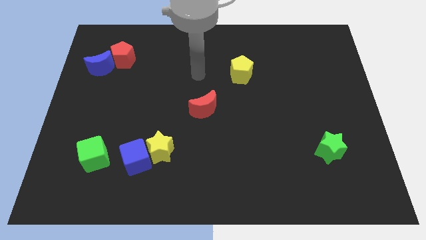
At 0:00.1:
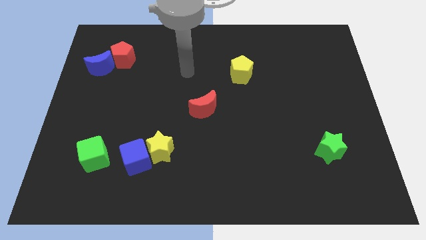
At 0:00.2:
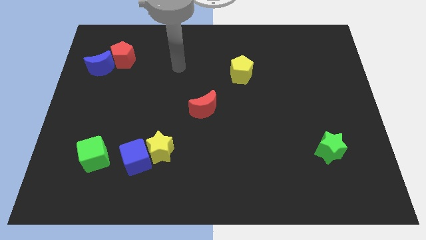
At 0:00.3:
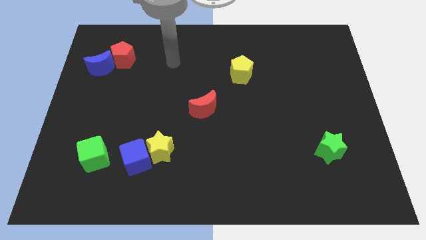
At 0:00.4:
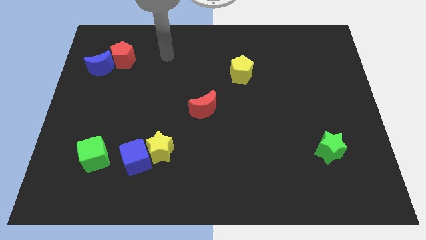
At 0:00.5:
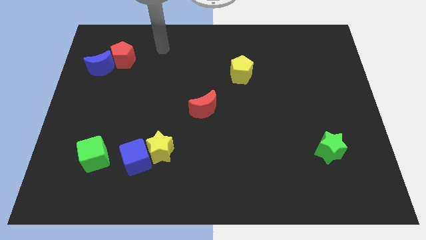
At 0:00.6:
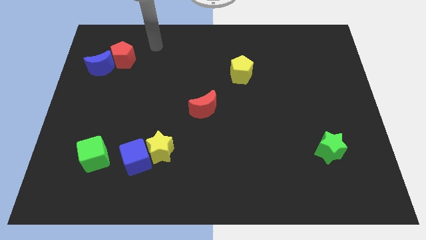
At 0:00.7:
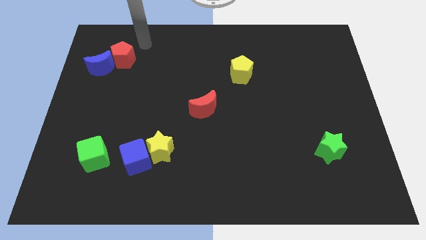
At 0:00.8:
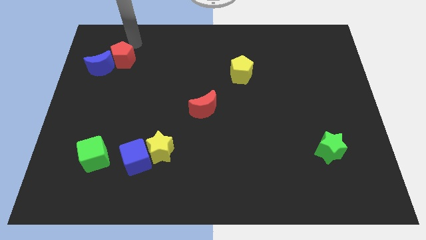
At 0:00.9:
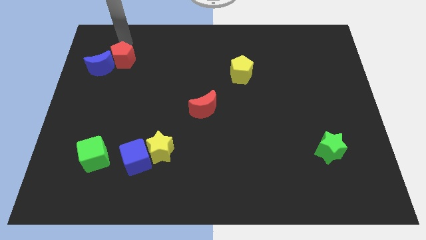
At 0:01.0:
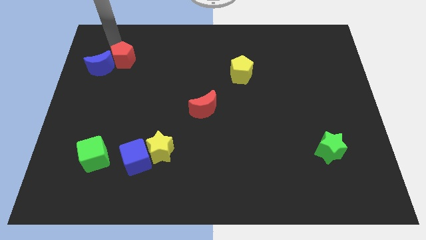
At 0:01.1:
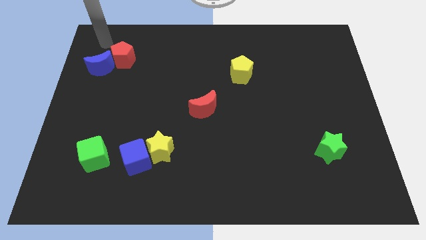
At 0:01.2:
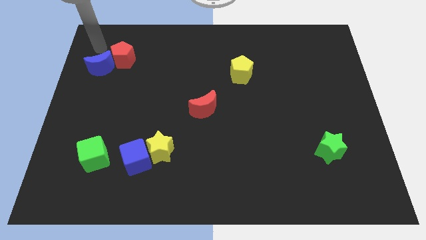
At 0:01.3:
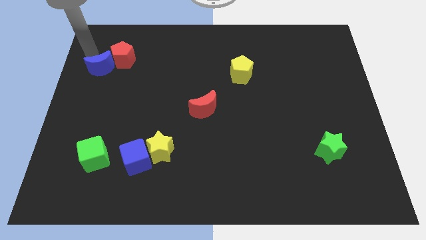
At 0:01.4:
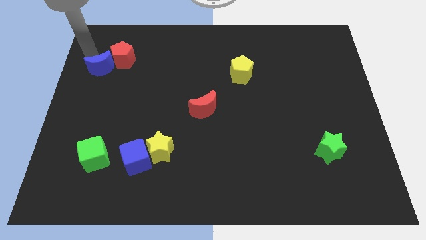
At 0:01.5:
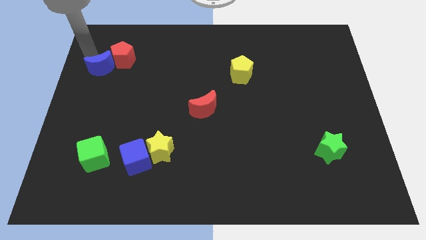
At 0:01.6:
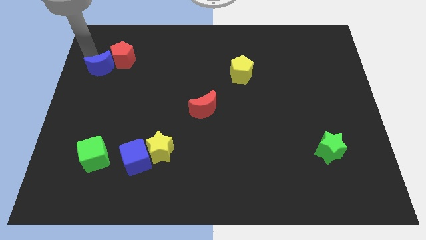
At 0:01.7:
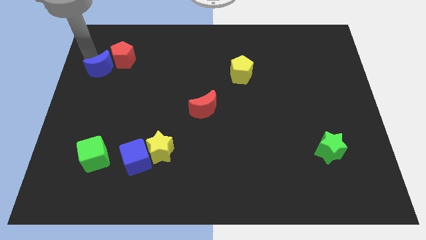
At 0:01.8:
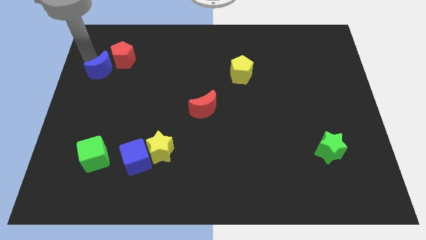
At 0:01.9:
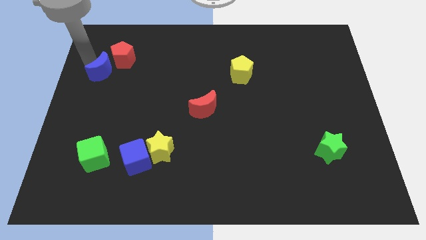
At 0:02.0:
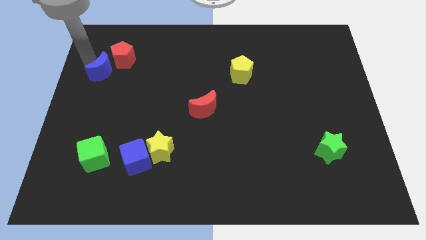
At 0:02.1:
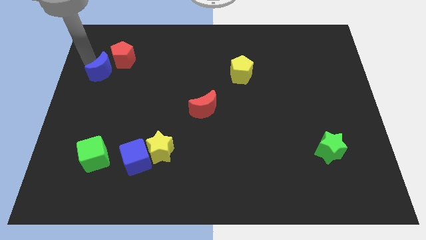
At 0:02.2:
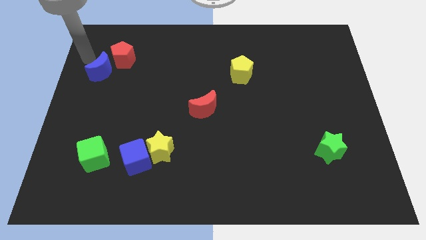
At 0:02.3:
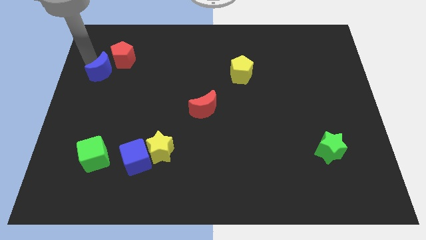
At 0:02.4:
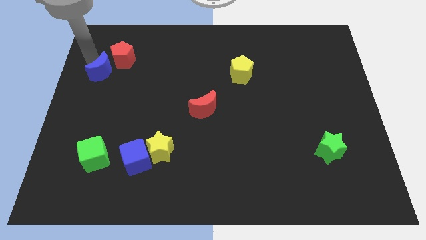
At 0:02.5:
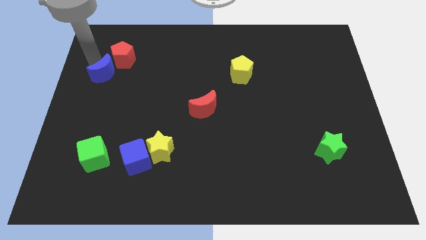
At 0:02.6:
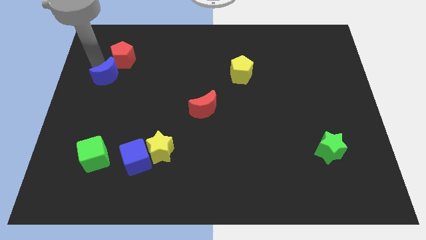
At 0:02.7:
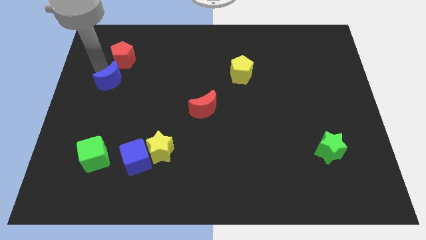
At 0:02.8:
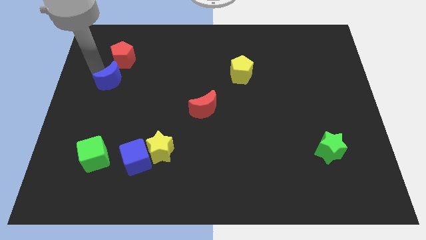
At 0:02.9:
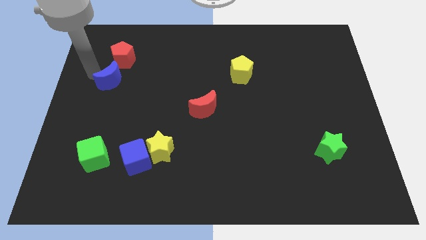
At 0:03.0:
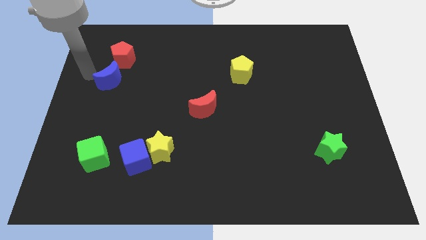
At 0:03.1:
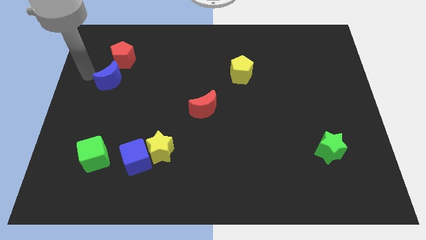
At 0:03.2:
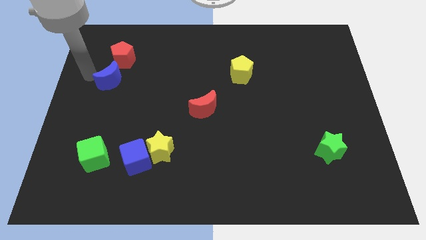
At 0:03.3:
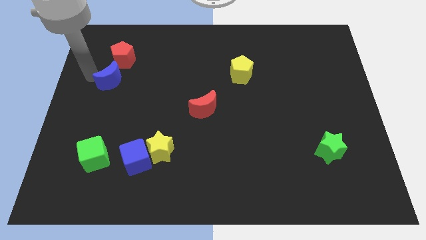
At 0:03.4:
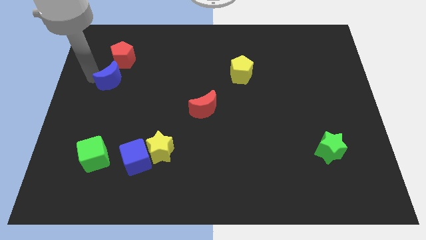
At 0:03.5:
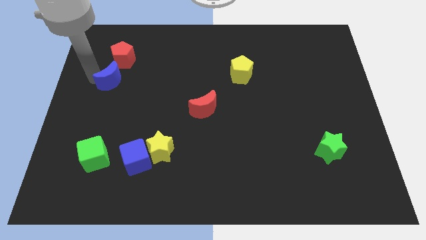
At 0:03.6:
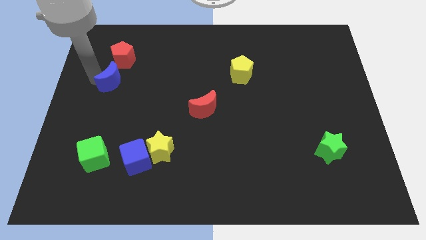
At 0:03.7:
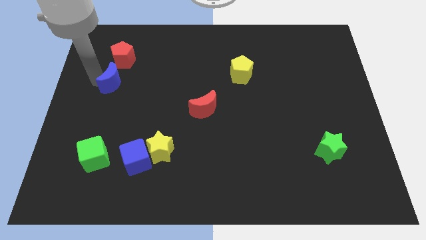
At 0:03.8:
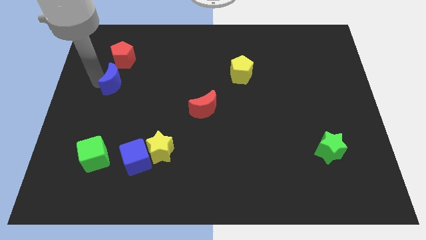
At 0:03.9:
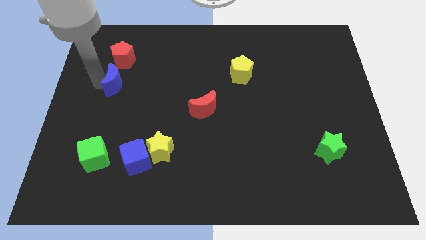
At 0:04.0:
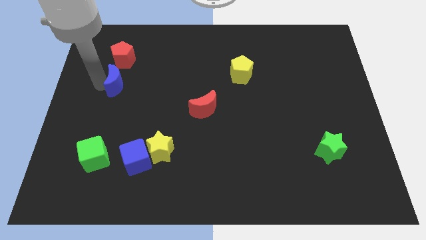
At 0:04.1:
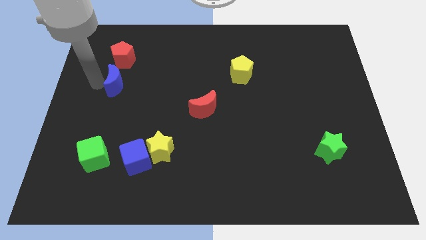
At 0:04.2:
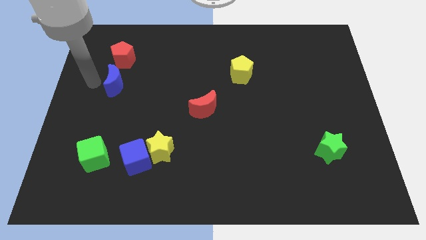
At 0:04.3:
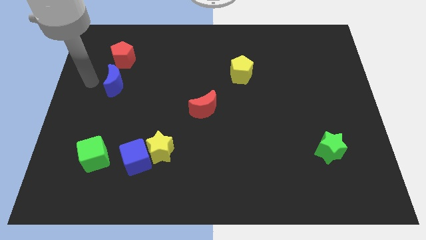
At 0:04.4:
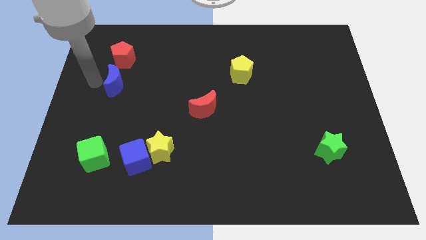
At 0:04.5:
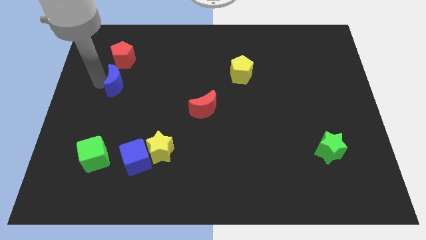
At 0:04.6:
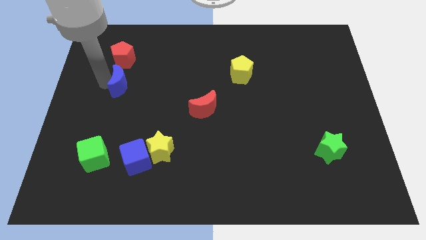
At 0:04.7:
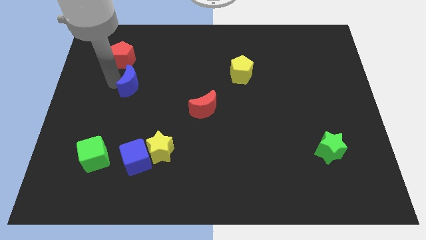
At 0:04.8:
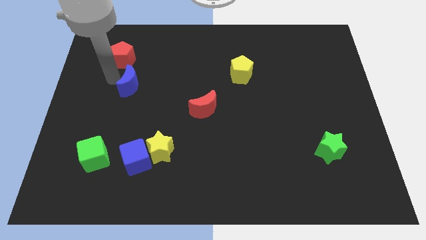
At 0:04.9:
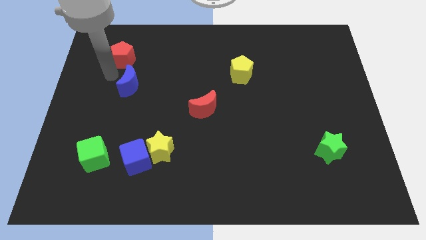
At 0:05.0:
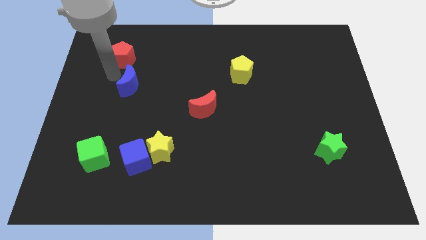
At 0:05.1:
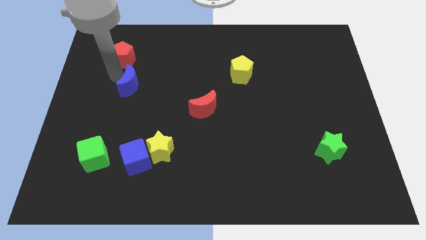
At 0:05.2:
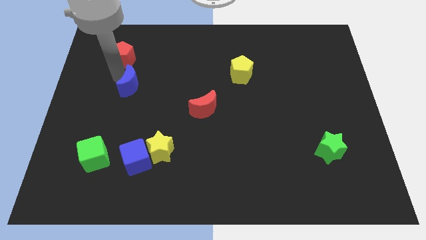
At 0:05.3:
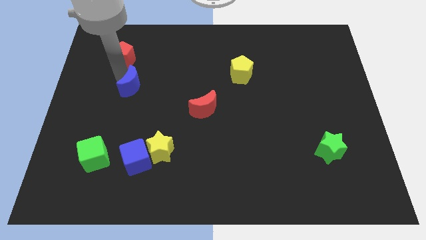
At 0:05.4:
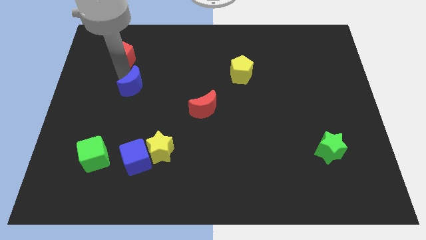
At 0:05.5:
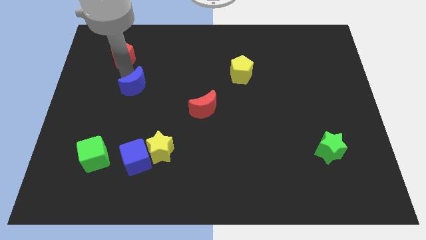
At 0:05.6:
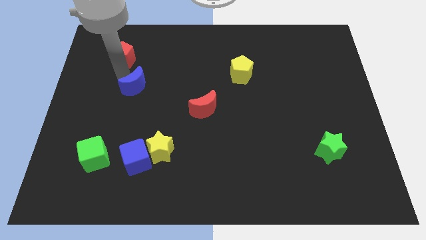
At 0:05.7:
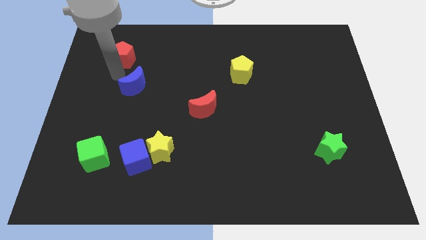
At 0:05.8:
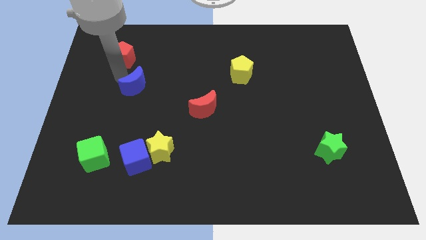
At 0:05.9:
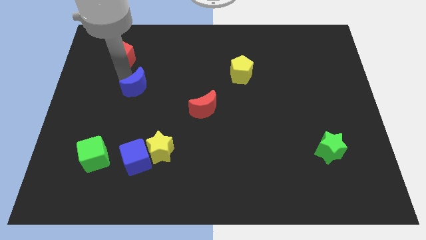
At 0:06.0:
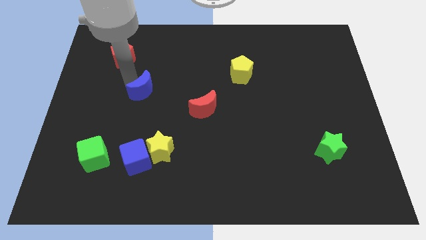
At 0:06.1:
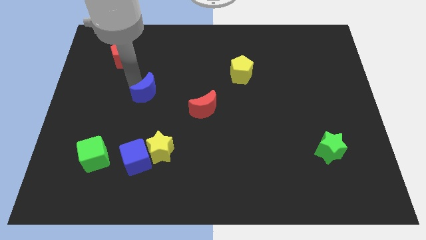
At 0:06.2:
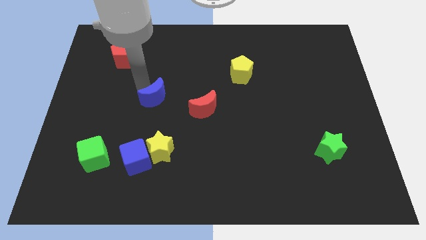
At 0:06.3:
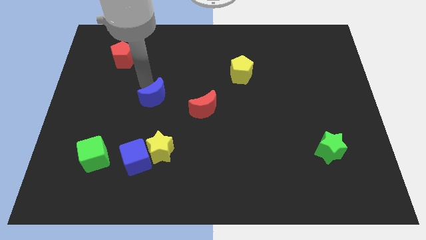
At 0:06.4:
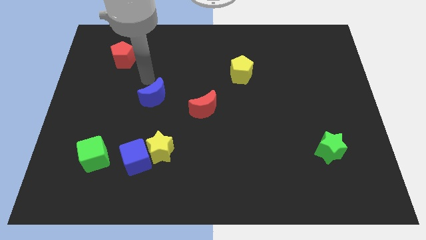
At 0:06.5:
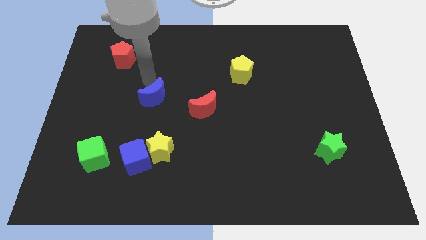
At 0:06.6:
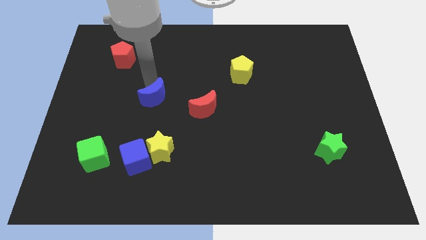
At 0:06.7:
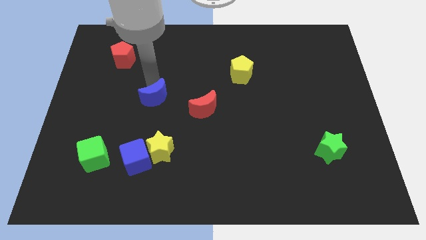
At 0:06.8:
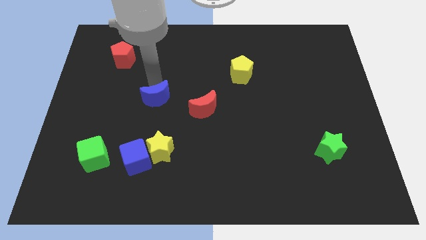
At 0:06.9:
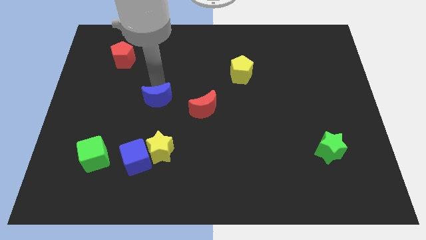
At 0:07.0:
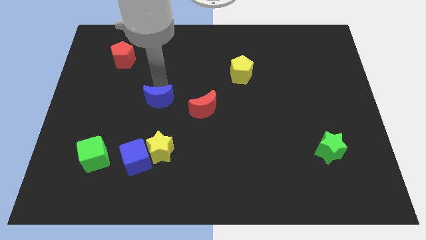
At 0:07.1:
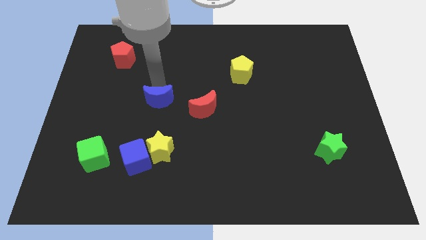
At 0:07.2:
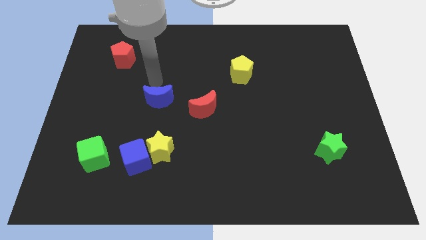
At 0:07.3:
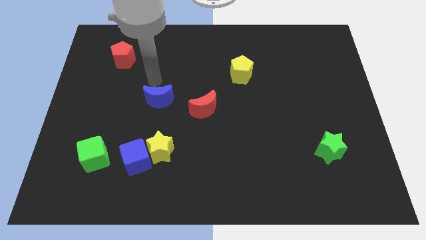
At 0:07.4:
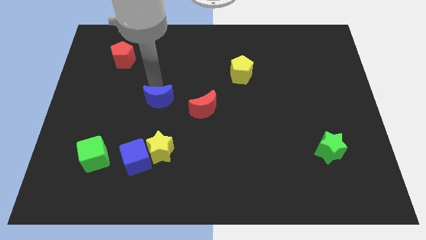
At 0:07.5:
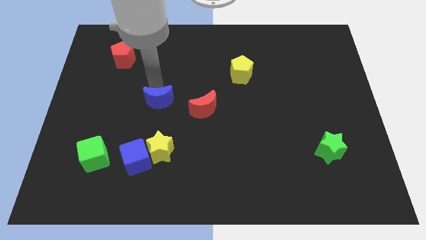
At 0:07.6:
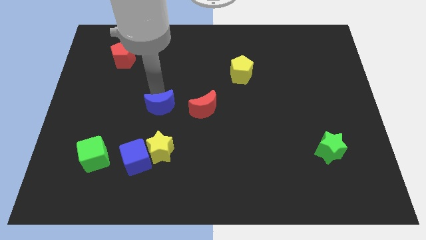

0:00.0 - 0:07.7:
slide the blue moon downwards and to the right
